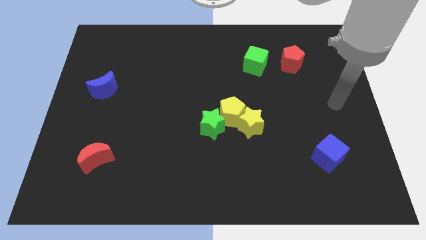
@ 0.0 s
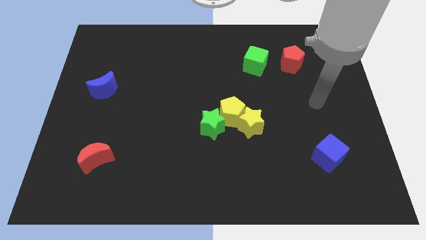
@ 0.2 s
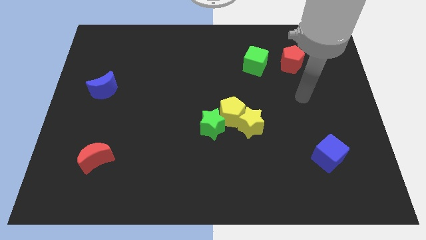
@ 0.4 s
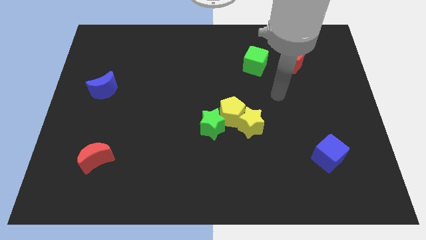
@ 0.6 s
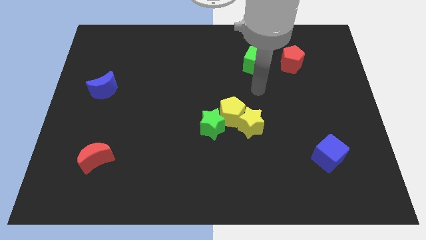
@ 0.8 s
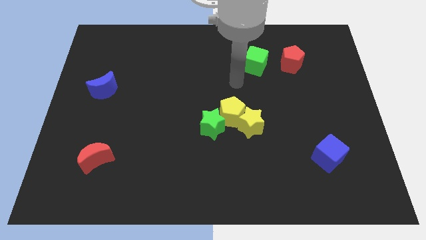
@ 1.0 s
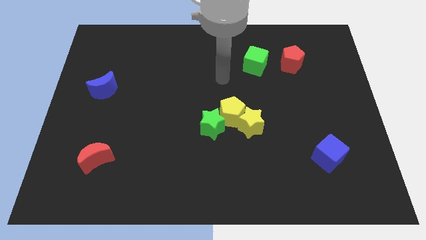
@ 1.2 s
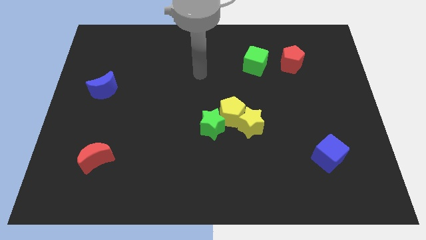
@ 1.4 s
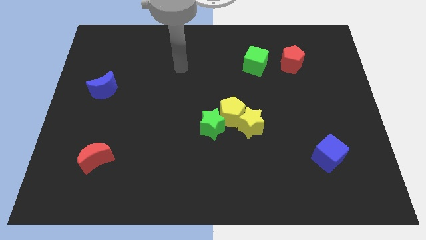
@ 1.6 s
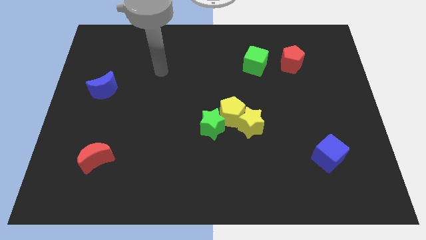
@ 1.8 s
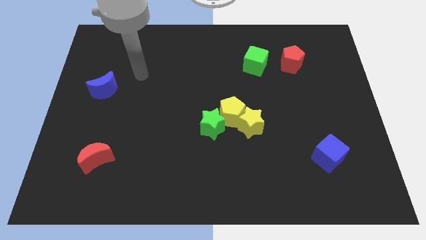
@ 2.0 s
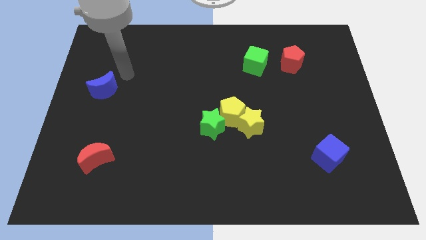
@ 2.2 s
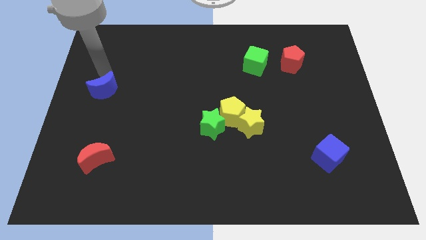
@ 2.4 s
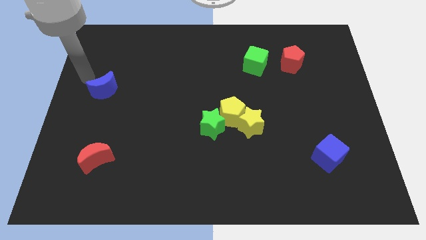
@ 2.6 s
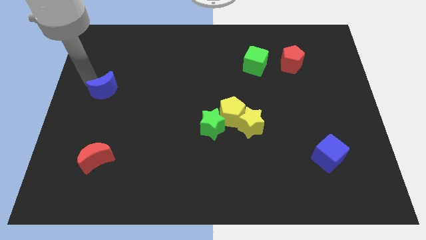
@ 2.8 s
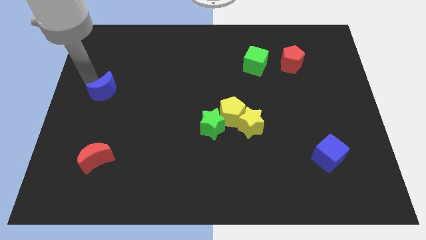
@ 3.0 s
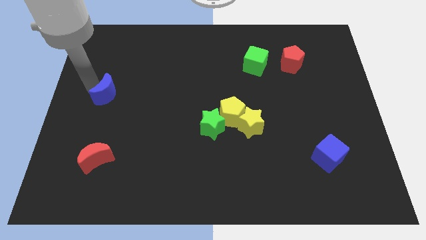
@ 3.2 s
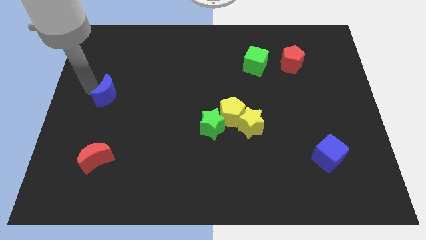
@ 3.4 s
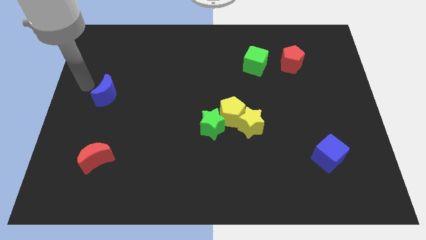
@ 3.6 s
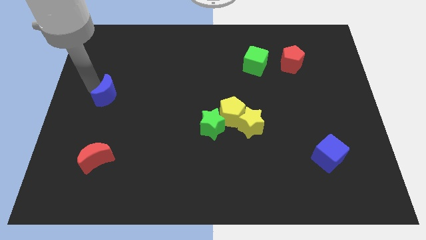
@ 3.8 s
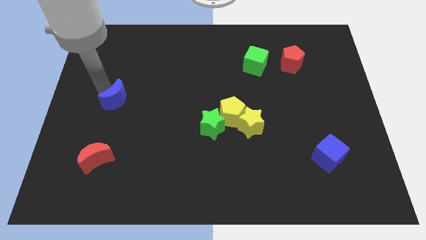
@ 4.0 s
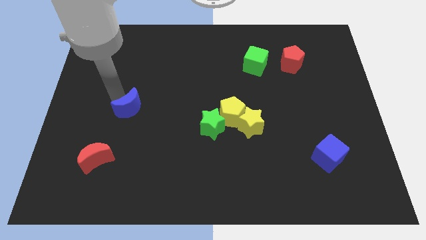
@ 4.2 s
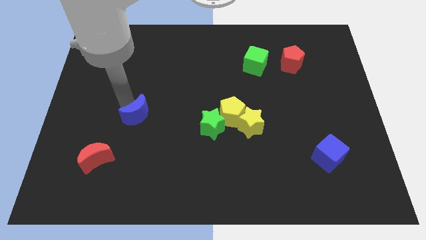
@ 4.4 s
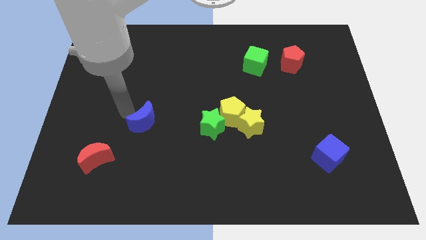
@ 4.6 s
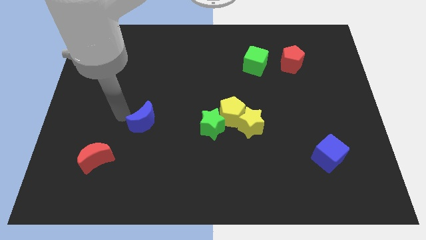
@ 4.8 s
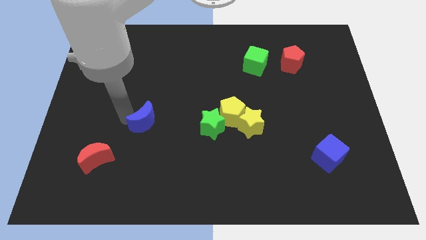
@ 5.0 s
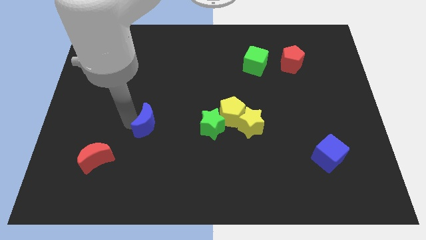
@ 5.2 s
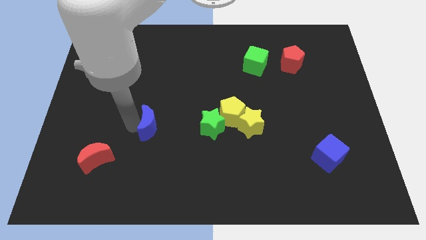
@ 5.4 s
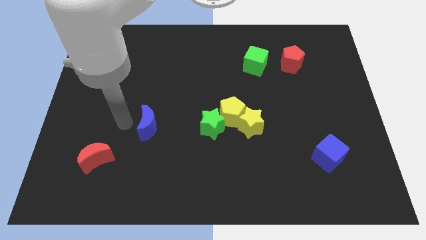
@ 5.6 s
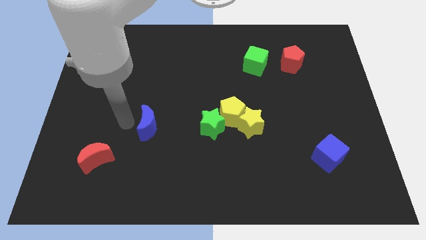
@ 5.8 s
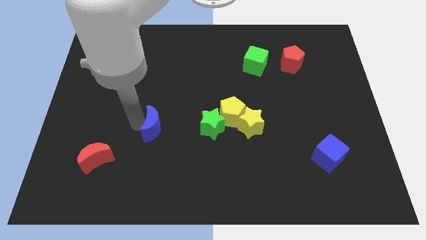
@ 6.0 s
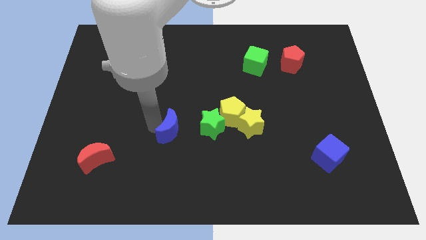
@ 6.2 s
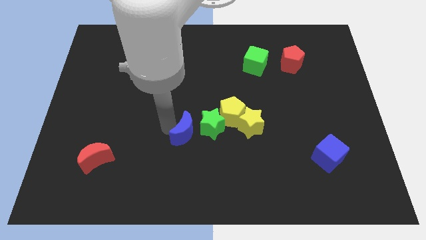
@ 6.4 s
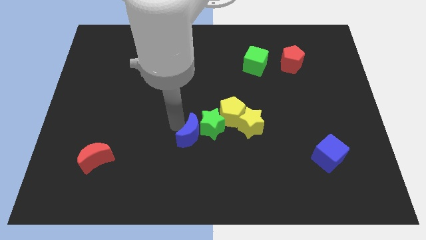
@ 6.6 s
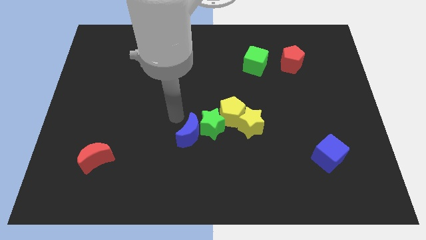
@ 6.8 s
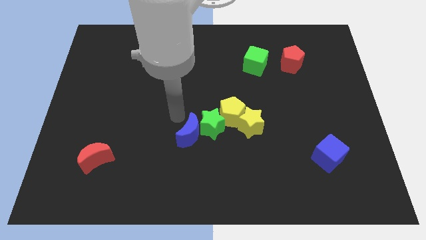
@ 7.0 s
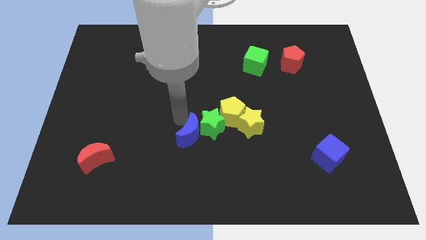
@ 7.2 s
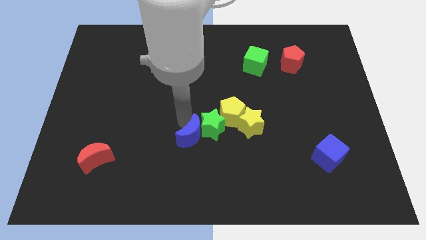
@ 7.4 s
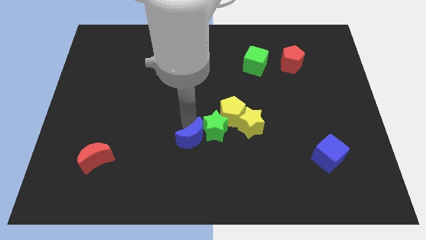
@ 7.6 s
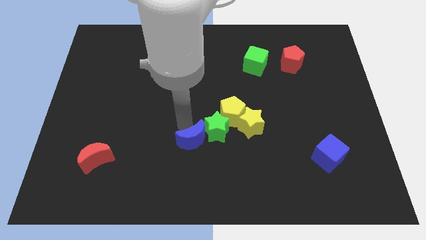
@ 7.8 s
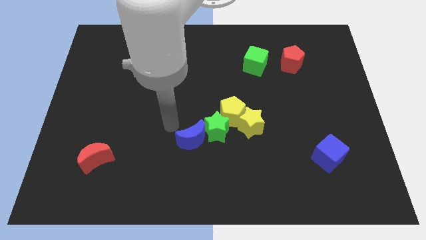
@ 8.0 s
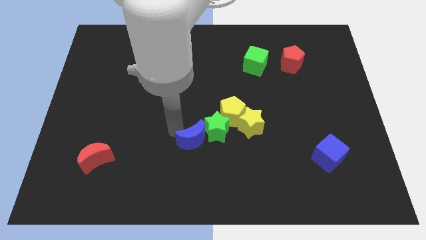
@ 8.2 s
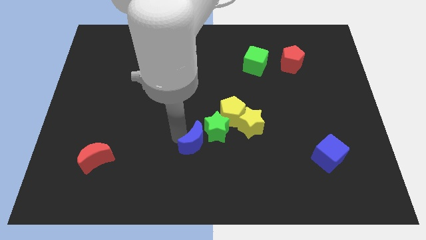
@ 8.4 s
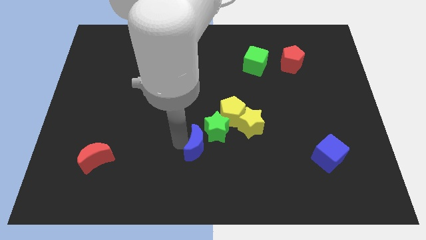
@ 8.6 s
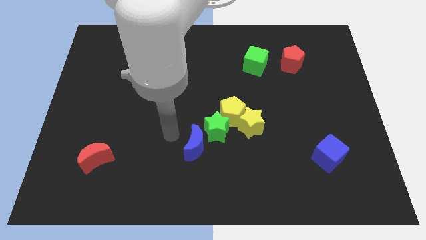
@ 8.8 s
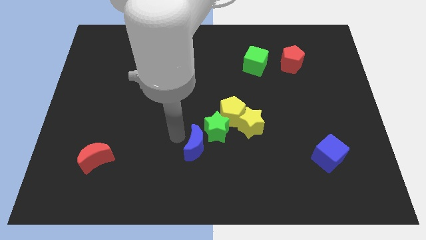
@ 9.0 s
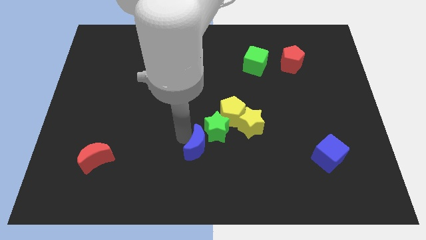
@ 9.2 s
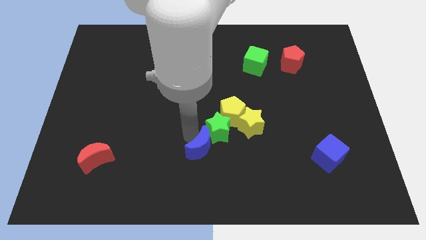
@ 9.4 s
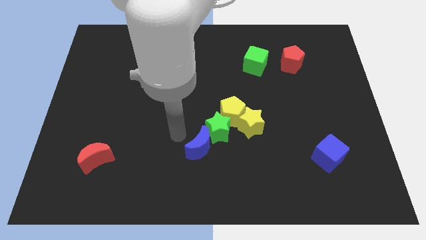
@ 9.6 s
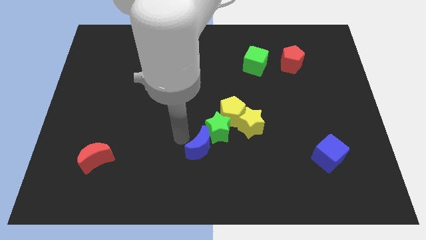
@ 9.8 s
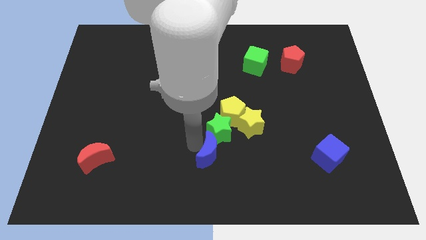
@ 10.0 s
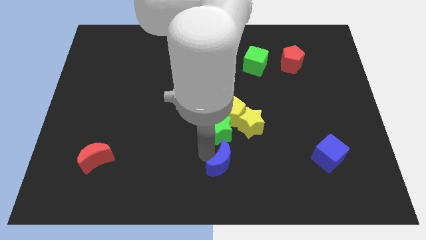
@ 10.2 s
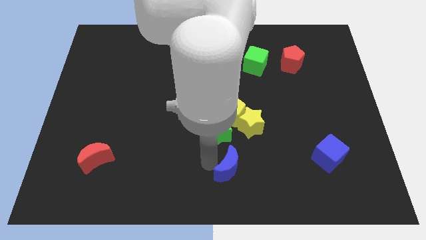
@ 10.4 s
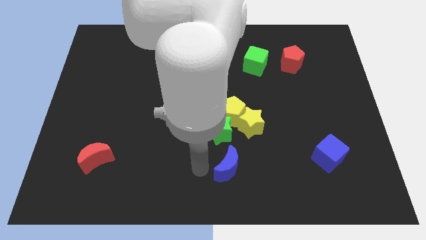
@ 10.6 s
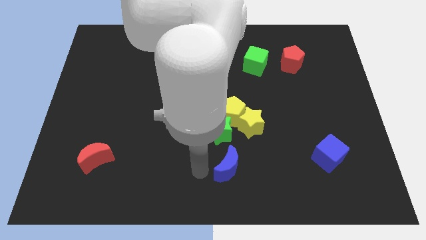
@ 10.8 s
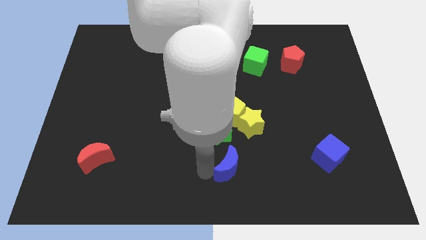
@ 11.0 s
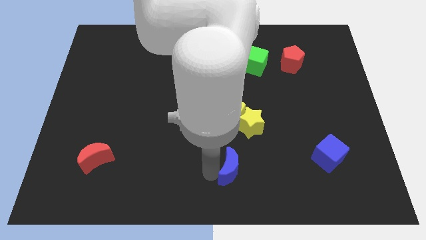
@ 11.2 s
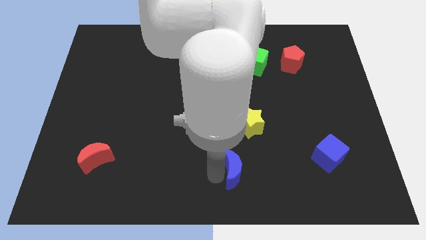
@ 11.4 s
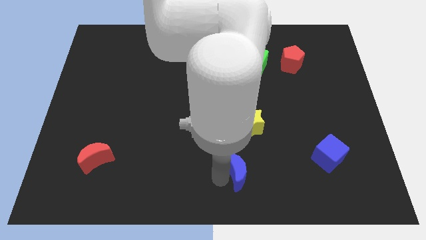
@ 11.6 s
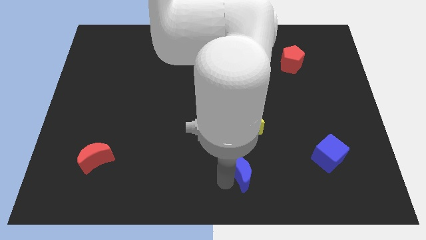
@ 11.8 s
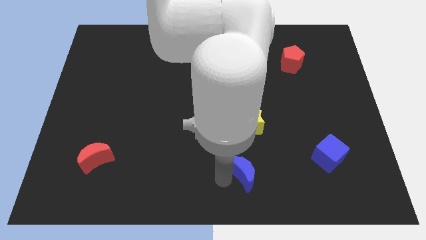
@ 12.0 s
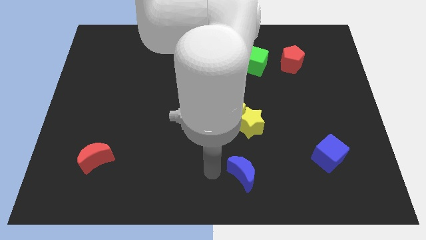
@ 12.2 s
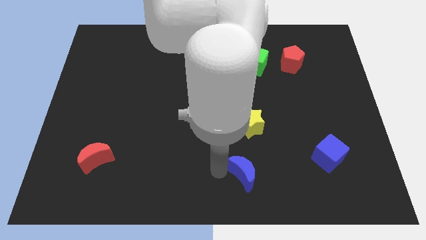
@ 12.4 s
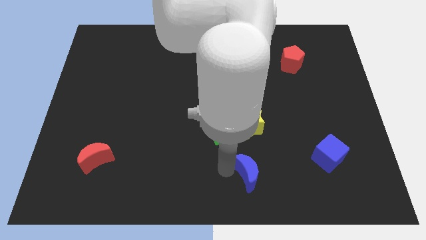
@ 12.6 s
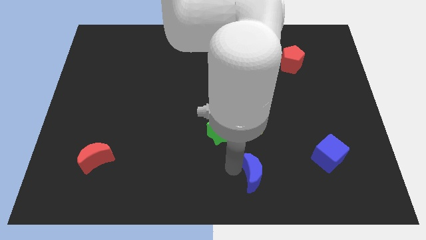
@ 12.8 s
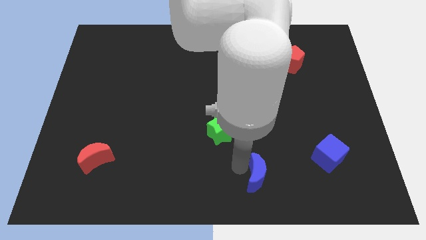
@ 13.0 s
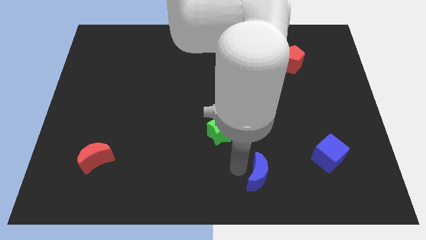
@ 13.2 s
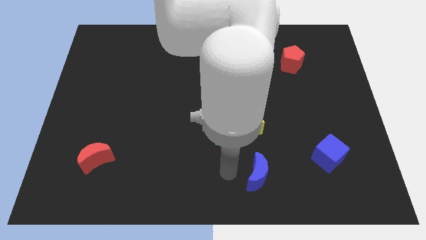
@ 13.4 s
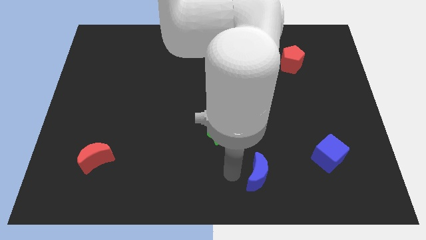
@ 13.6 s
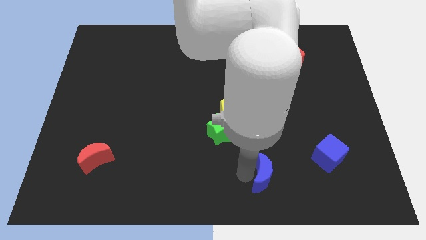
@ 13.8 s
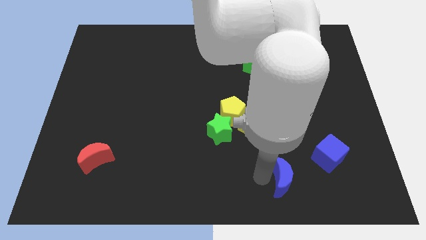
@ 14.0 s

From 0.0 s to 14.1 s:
push the blue moon diagonally down and to the left of the blue cube
